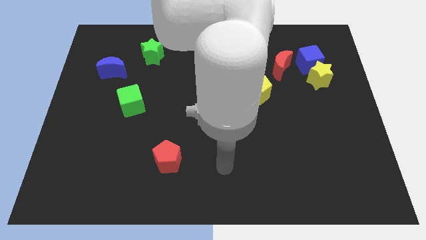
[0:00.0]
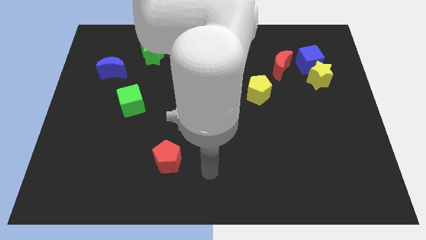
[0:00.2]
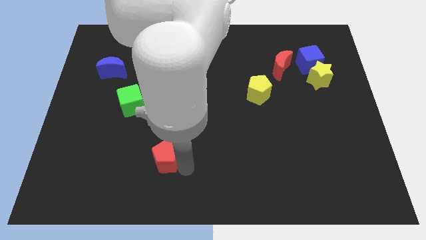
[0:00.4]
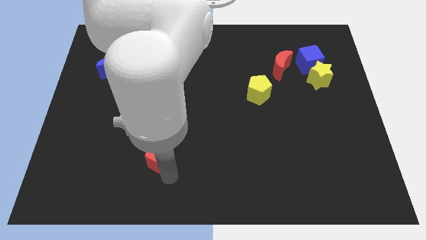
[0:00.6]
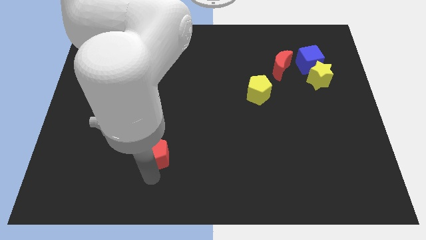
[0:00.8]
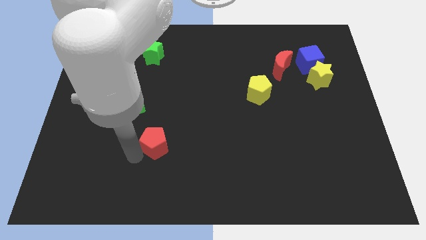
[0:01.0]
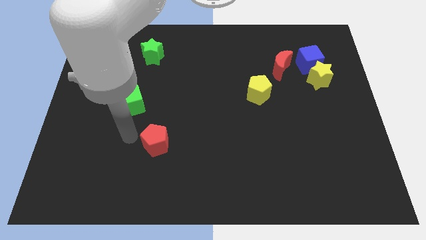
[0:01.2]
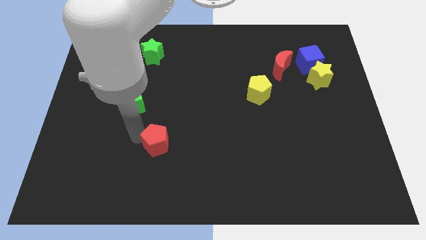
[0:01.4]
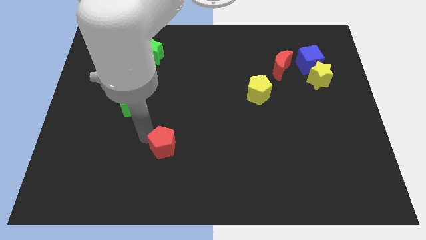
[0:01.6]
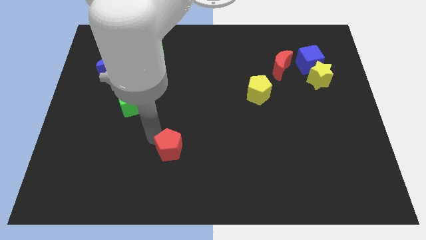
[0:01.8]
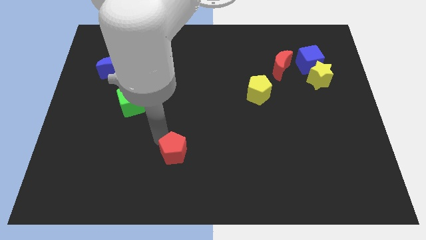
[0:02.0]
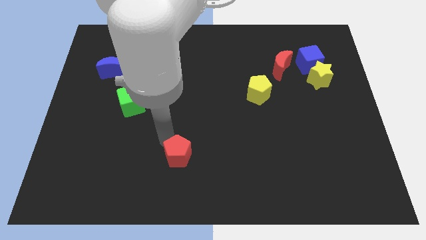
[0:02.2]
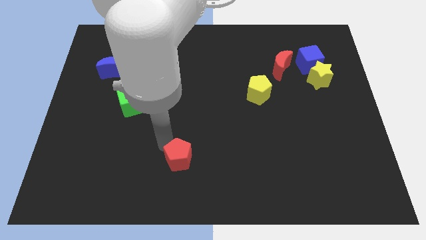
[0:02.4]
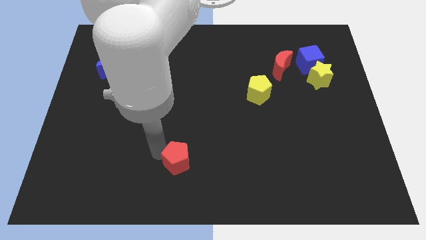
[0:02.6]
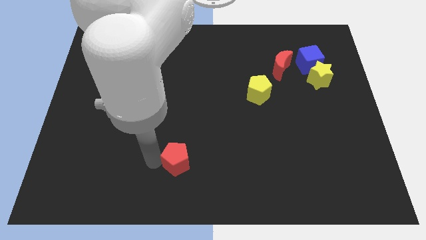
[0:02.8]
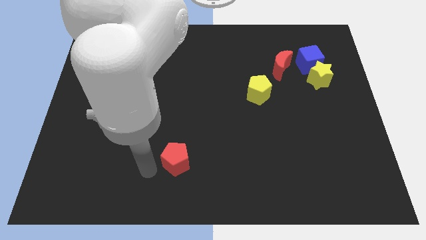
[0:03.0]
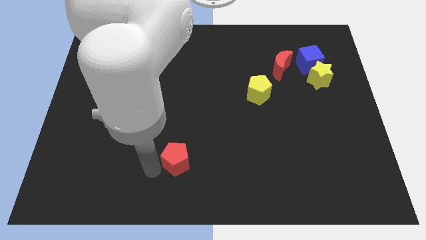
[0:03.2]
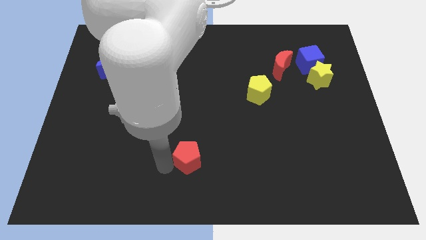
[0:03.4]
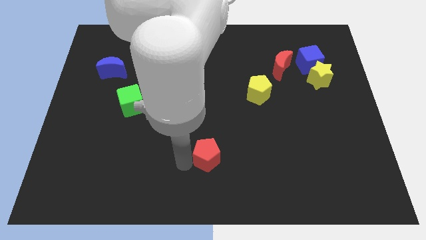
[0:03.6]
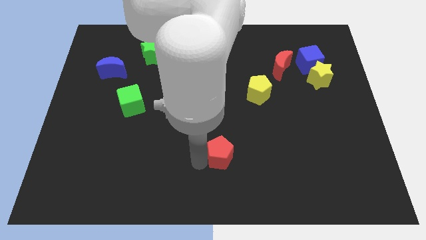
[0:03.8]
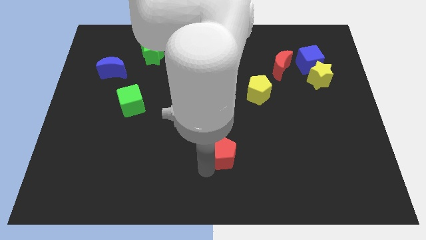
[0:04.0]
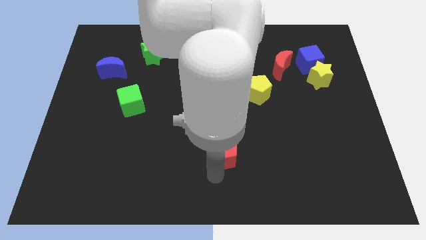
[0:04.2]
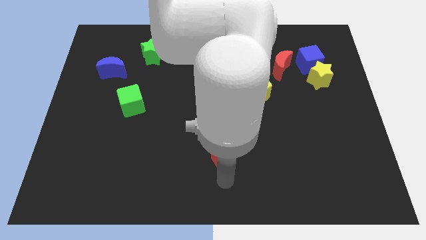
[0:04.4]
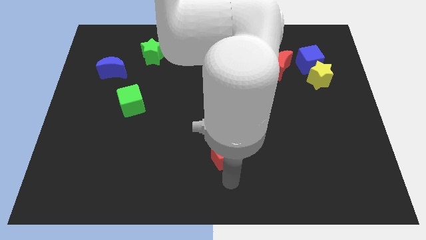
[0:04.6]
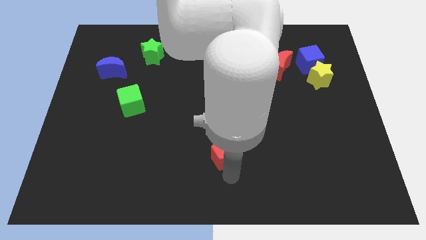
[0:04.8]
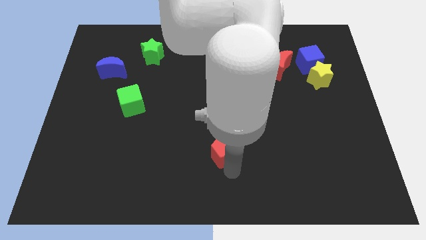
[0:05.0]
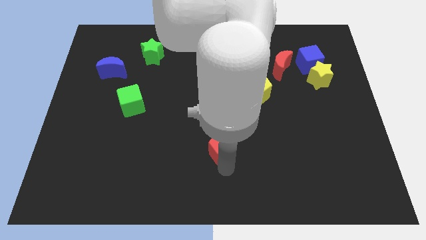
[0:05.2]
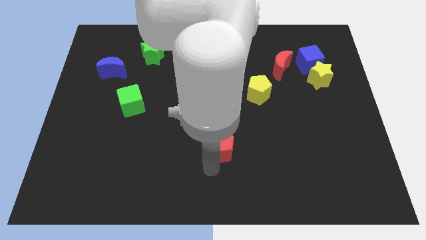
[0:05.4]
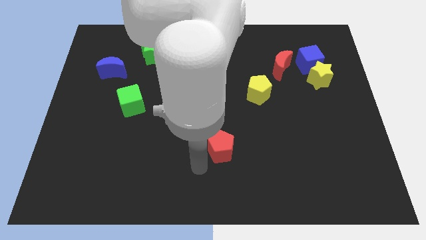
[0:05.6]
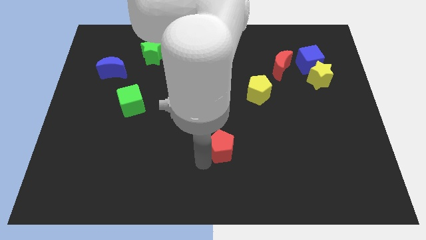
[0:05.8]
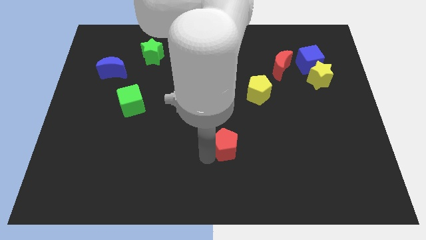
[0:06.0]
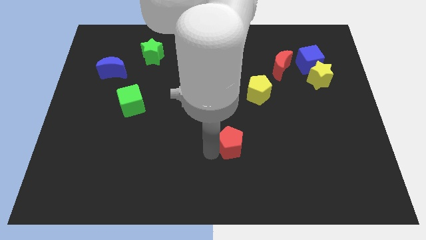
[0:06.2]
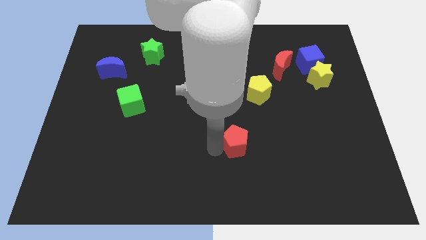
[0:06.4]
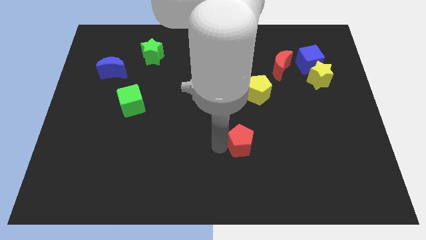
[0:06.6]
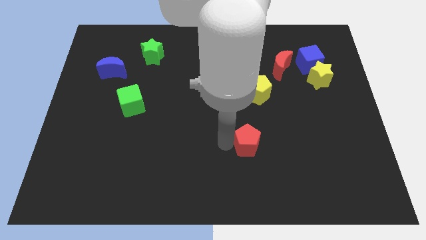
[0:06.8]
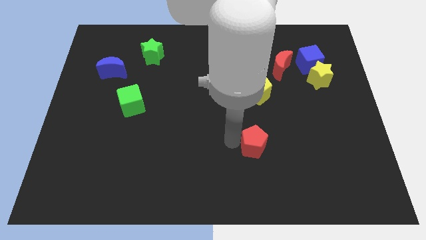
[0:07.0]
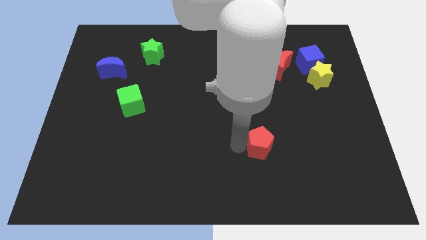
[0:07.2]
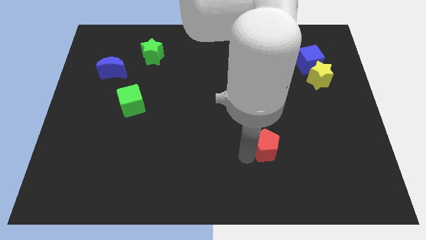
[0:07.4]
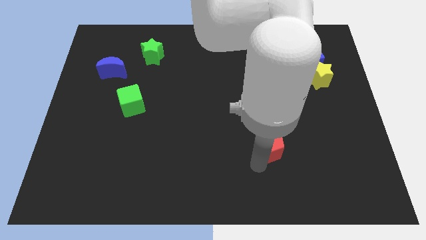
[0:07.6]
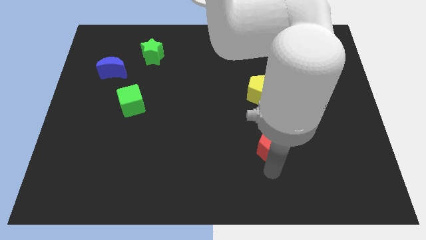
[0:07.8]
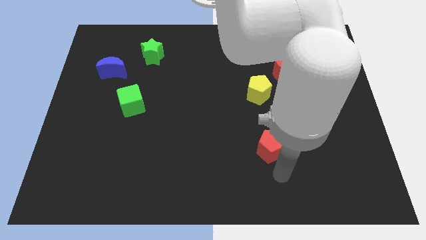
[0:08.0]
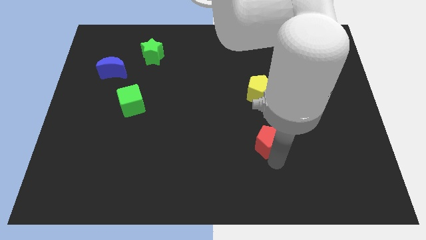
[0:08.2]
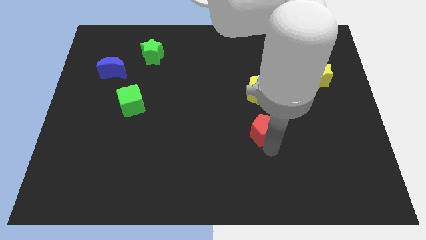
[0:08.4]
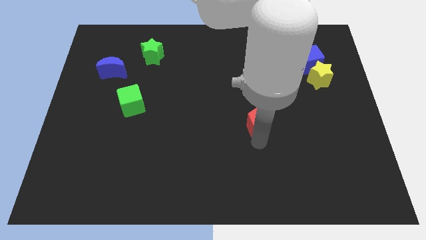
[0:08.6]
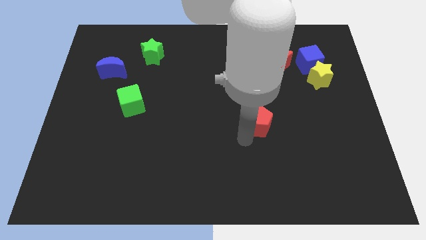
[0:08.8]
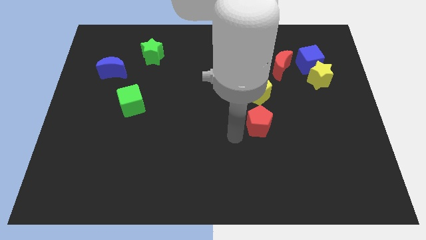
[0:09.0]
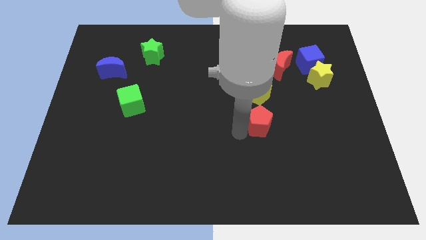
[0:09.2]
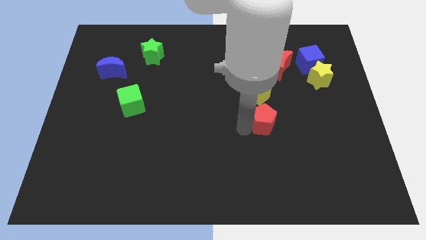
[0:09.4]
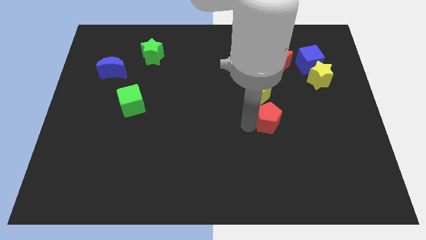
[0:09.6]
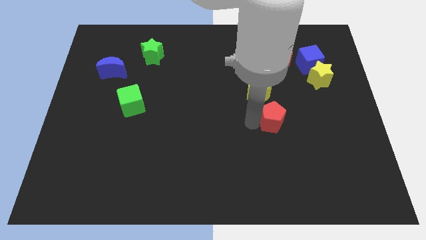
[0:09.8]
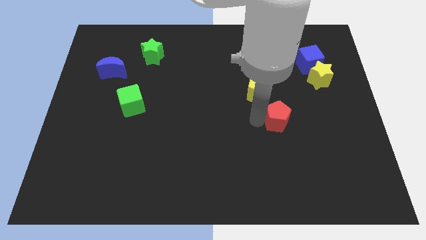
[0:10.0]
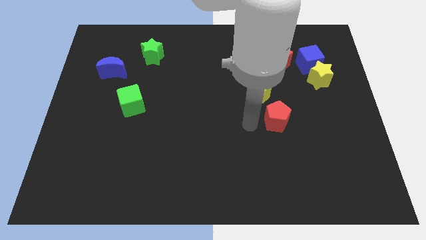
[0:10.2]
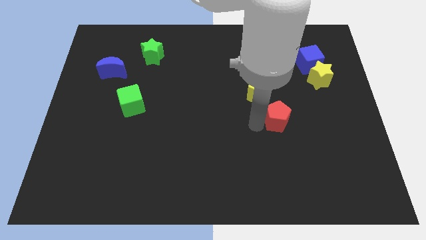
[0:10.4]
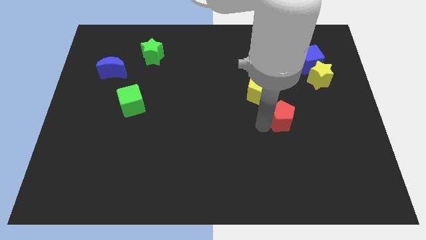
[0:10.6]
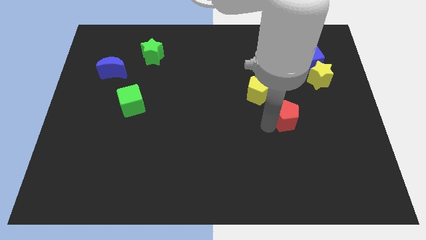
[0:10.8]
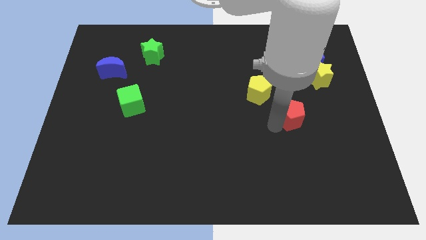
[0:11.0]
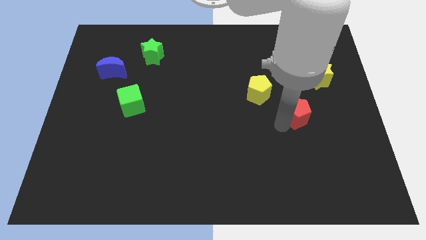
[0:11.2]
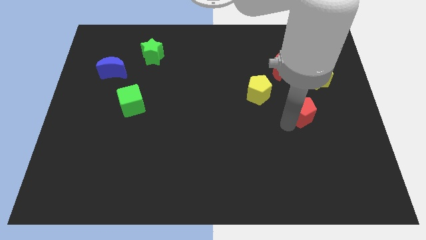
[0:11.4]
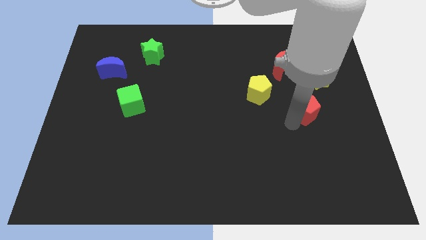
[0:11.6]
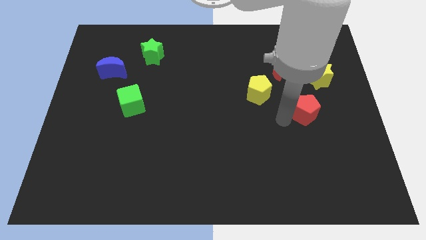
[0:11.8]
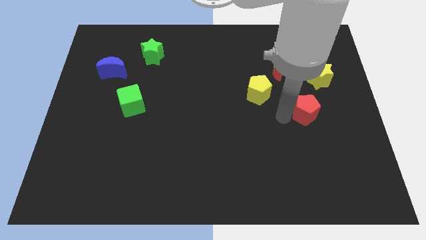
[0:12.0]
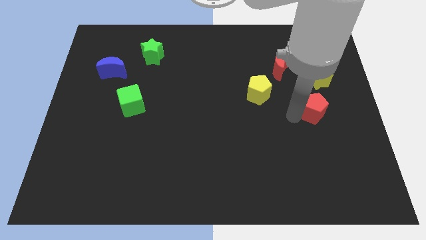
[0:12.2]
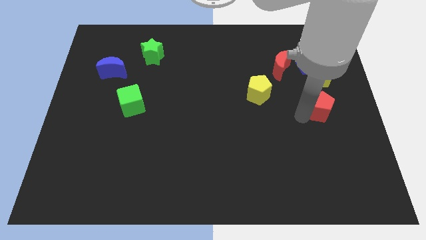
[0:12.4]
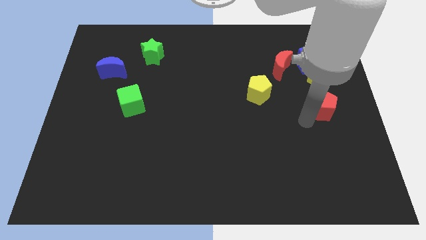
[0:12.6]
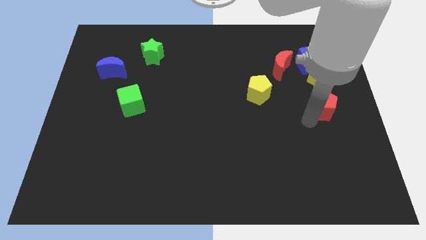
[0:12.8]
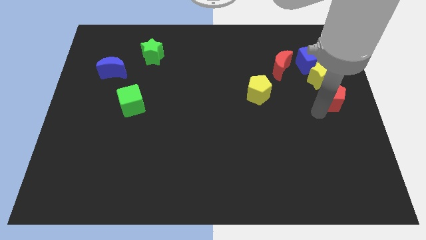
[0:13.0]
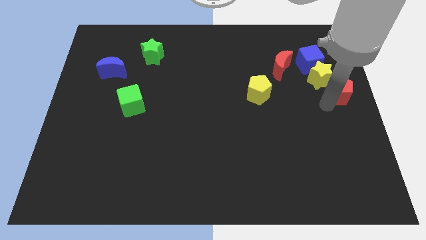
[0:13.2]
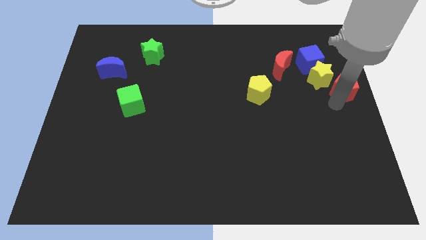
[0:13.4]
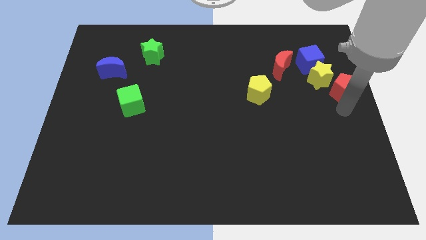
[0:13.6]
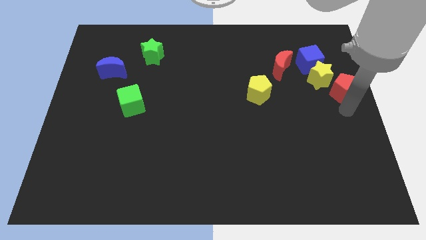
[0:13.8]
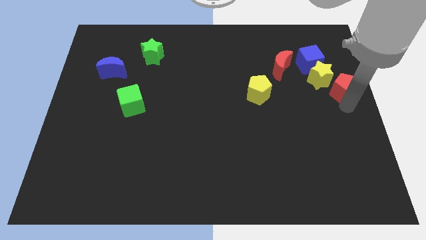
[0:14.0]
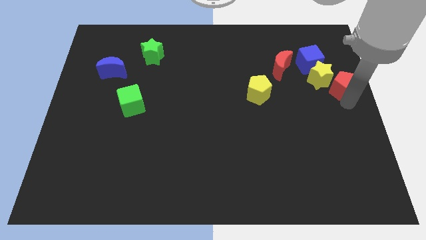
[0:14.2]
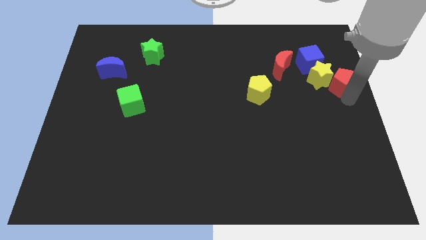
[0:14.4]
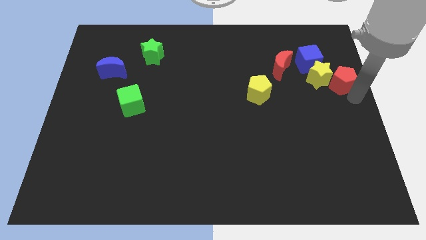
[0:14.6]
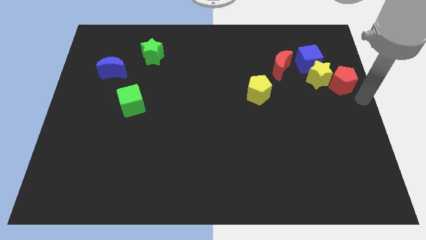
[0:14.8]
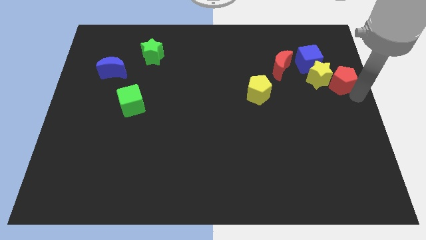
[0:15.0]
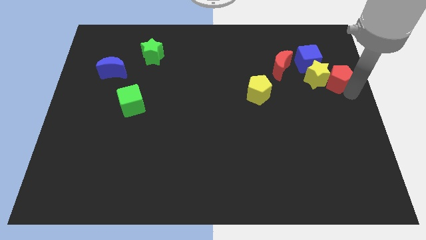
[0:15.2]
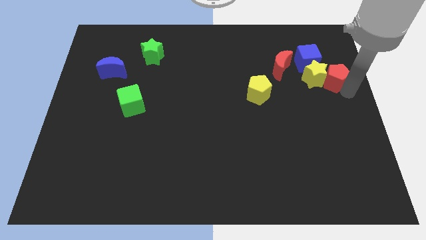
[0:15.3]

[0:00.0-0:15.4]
put the red pentagon to the right of the red moon
